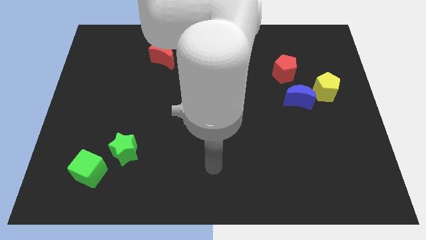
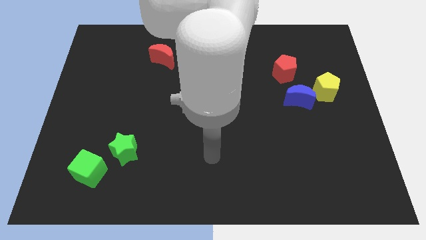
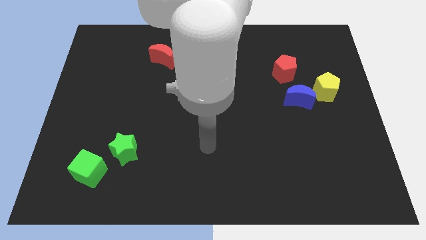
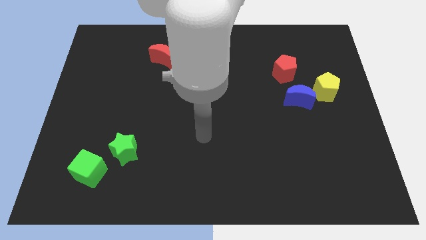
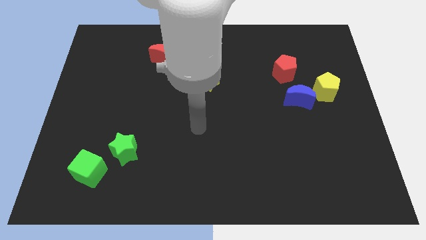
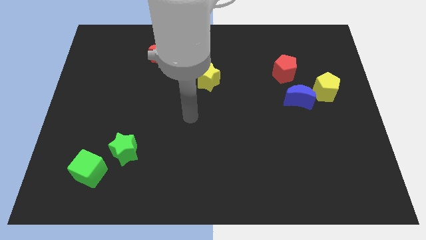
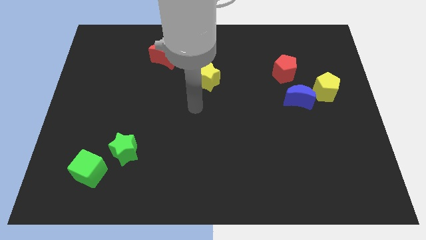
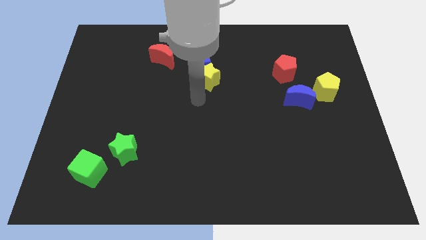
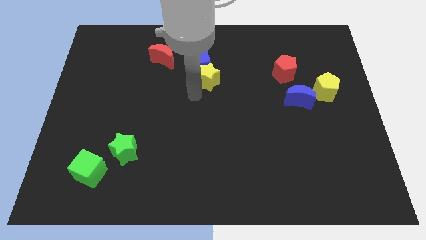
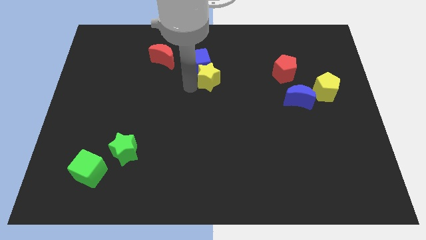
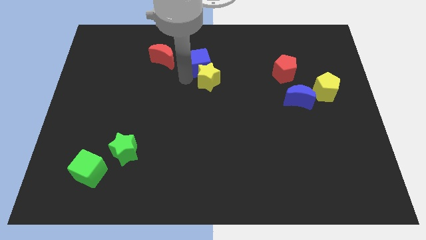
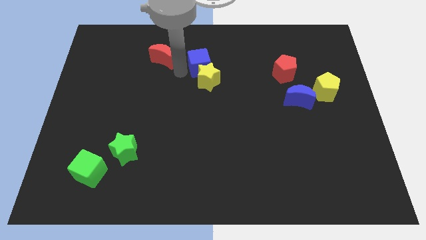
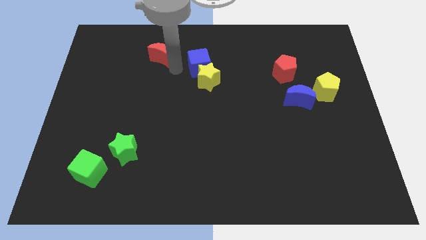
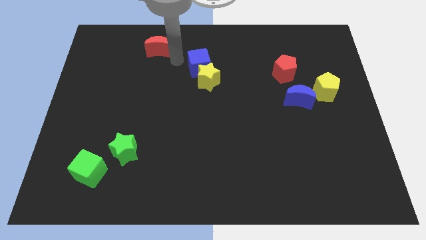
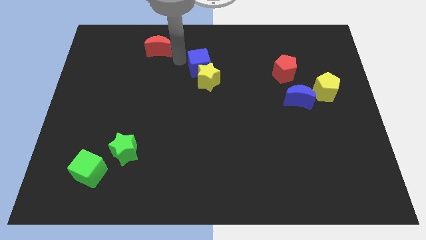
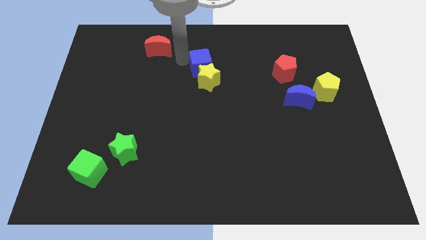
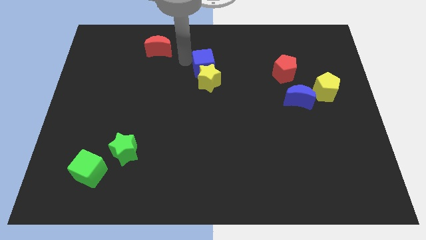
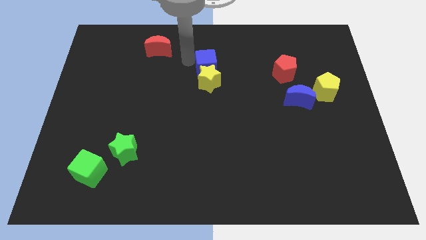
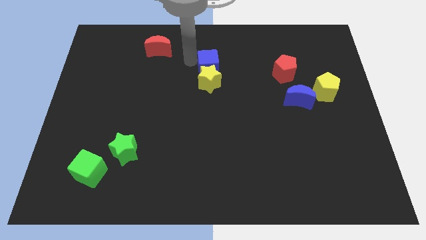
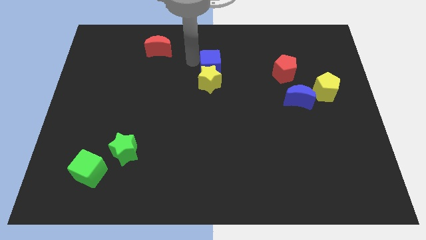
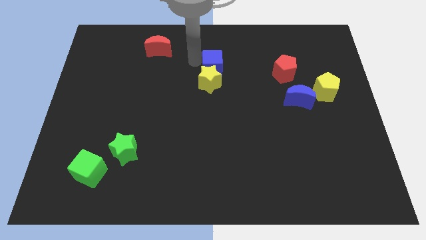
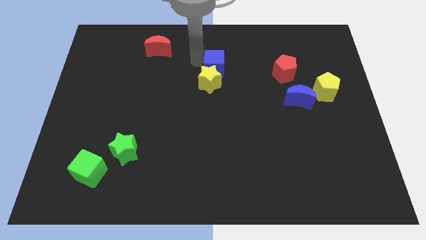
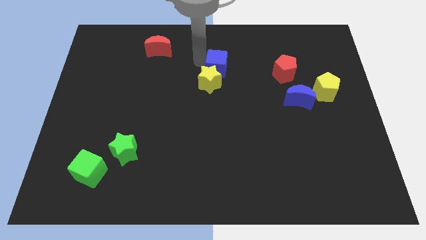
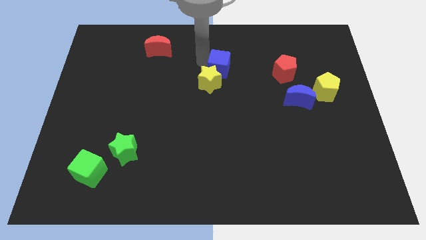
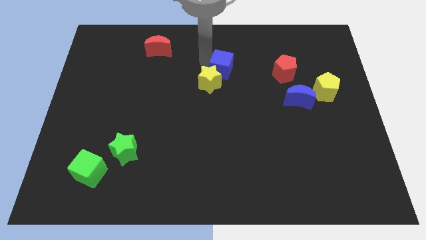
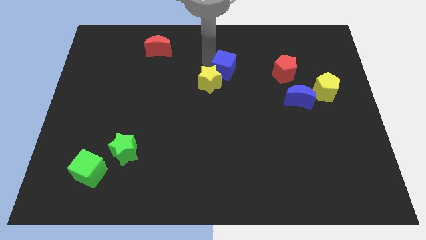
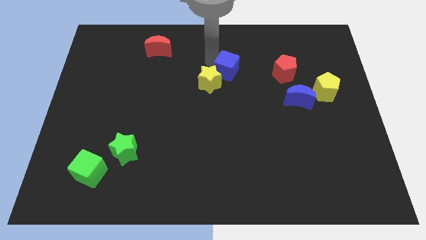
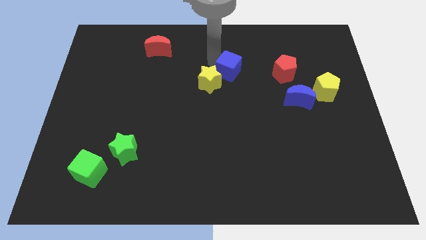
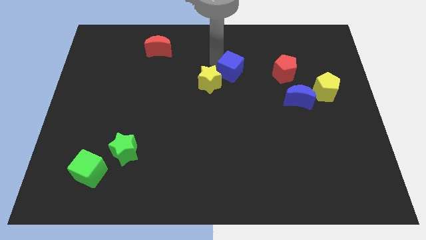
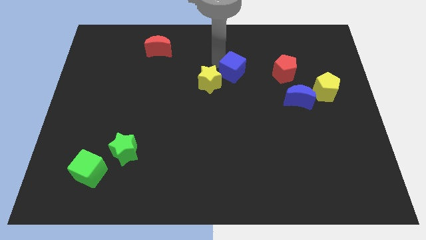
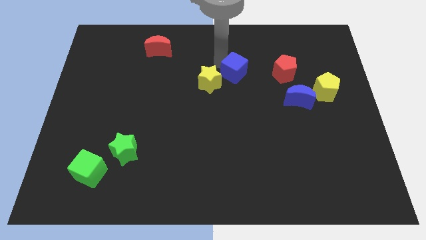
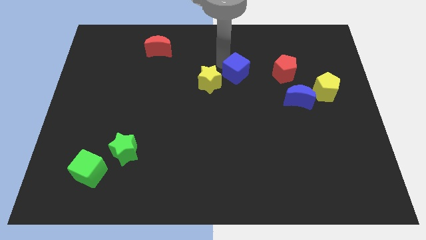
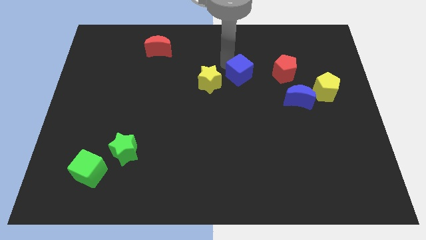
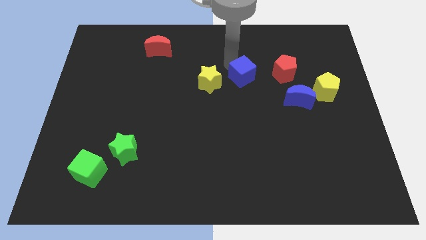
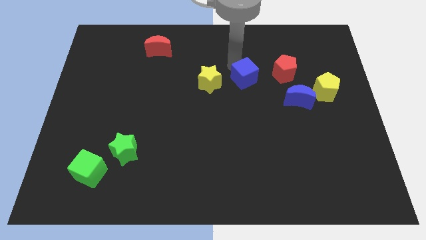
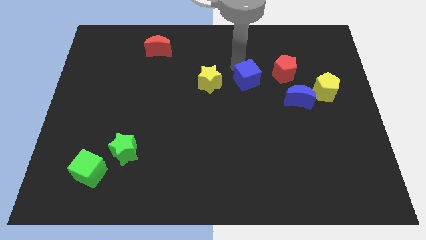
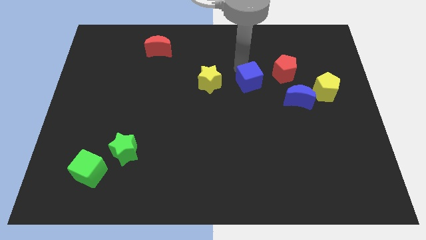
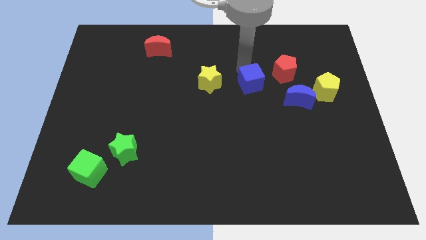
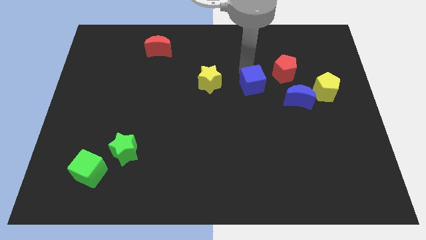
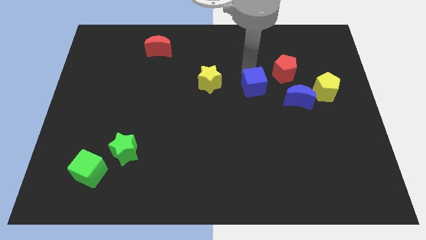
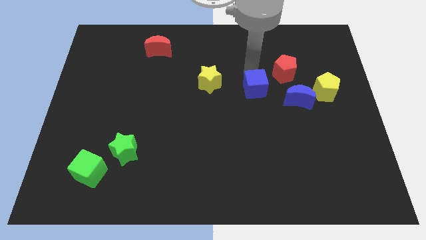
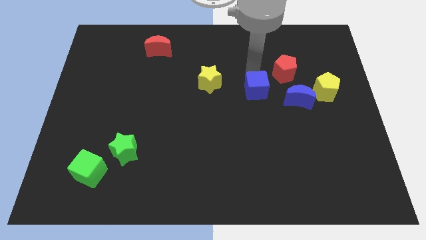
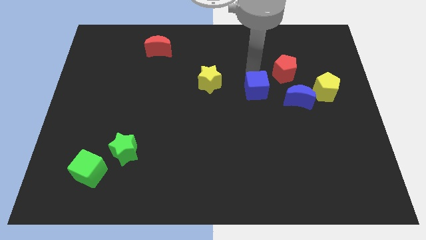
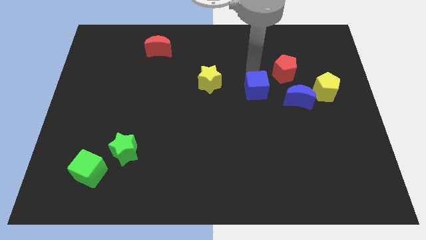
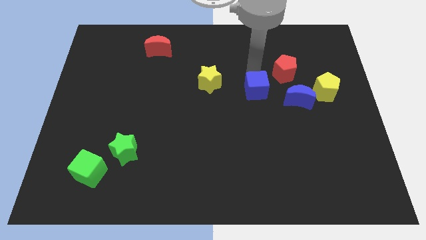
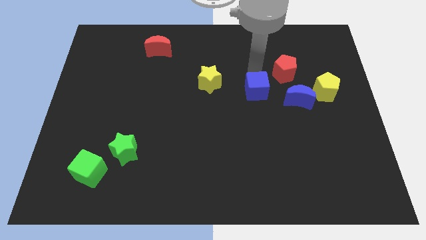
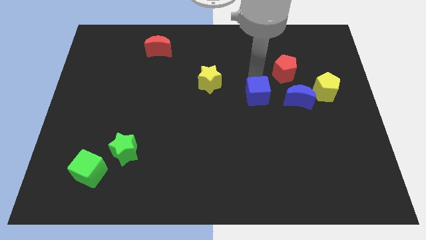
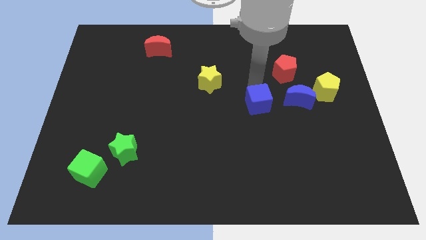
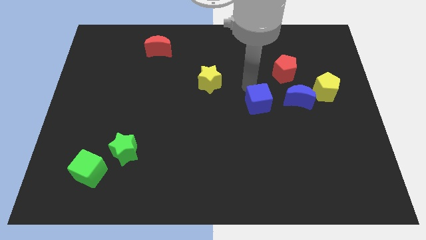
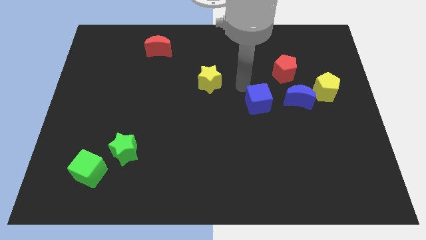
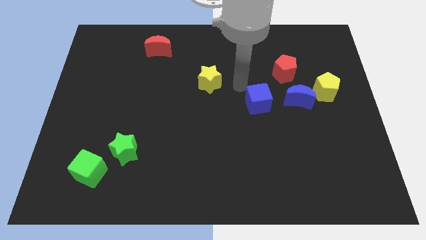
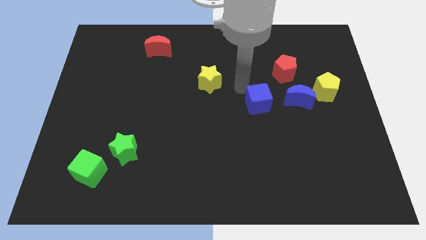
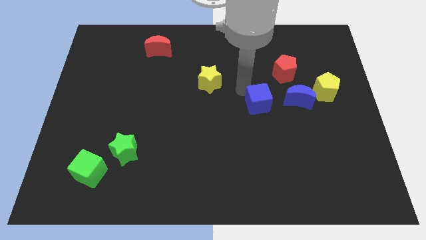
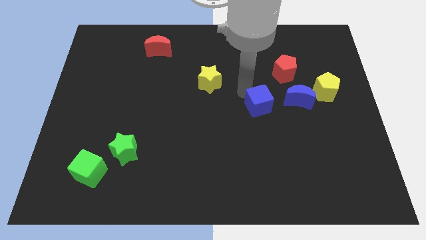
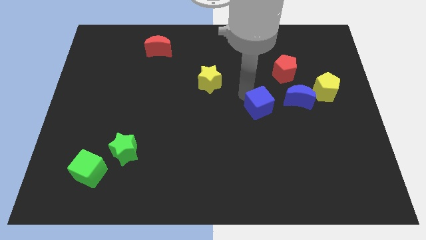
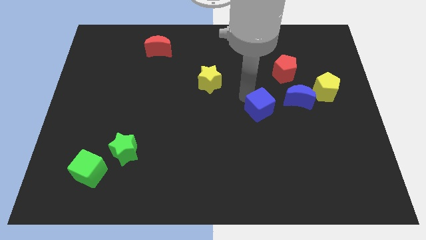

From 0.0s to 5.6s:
push the blue cube diagonally downwards and right

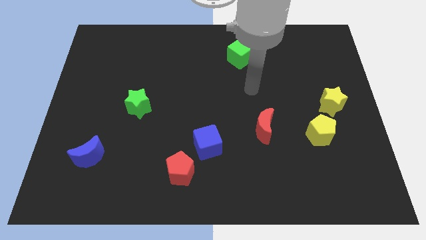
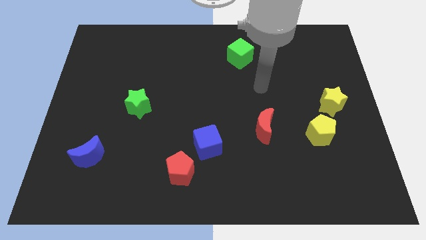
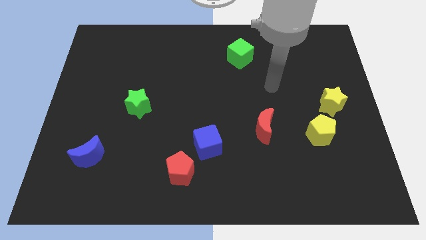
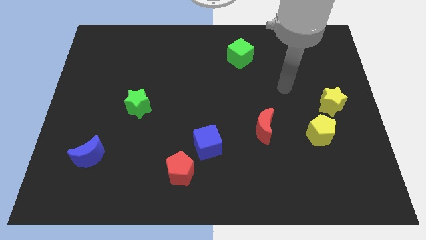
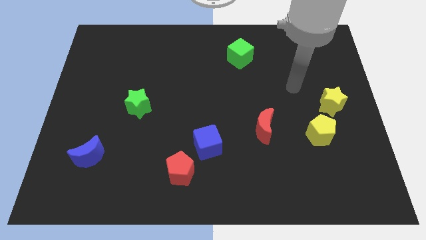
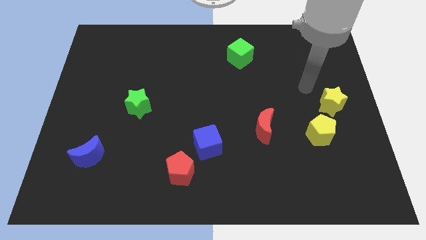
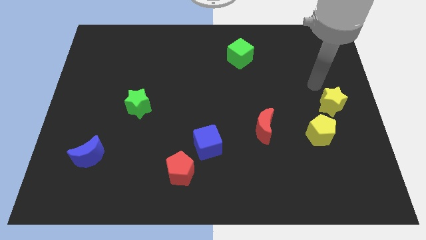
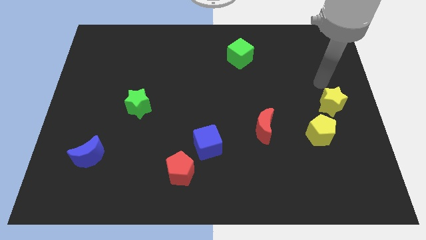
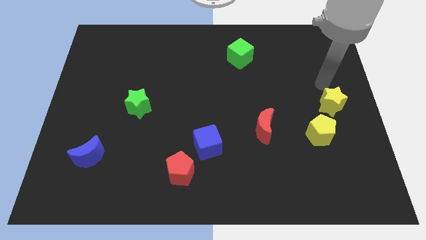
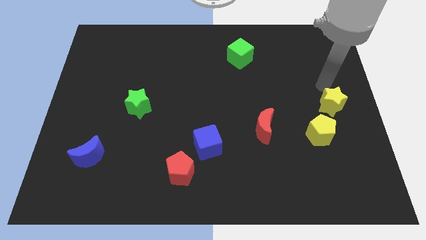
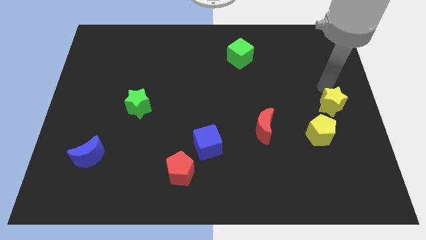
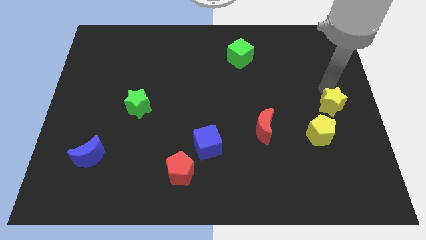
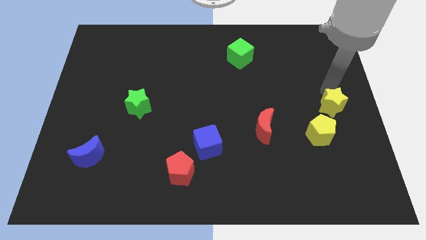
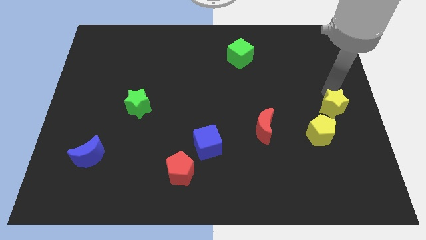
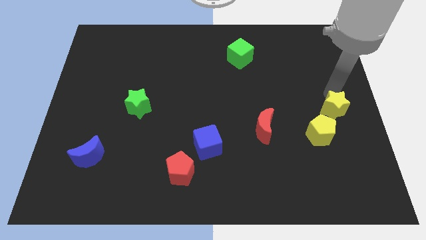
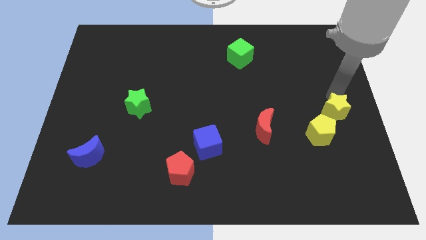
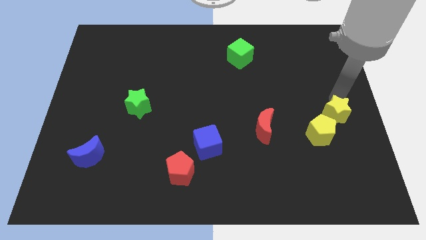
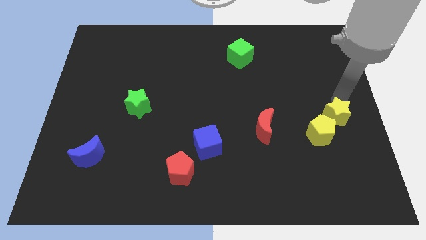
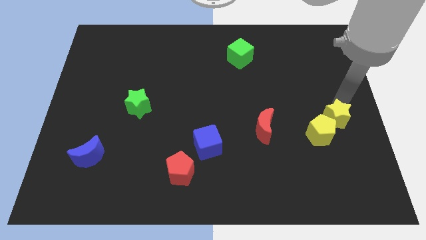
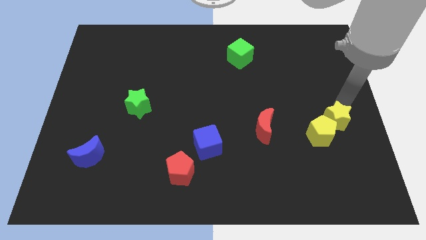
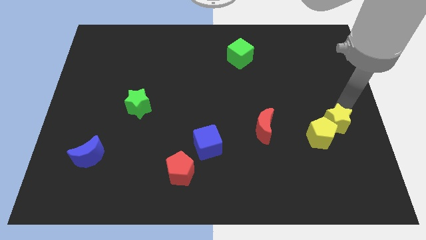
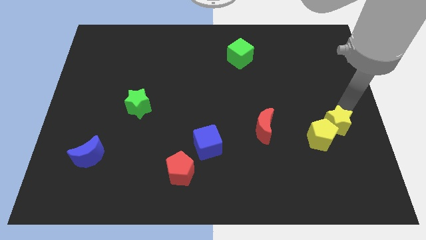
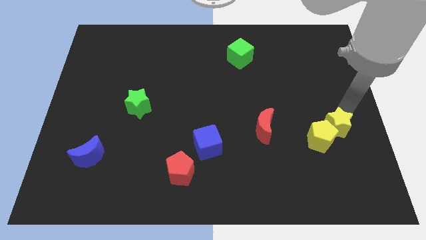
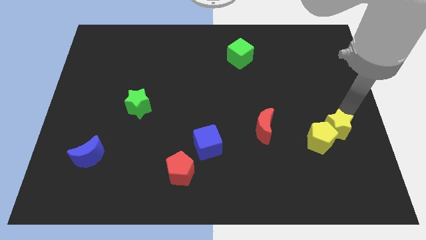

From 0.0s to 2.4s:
slide the yellow star down somewhat

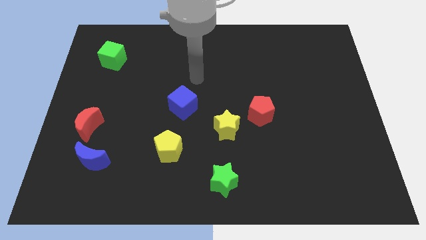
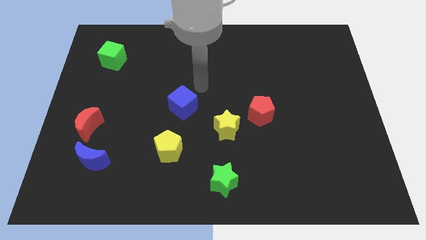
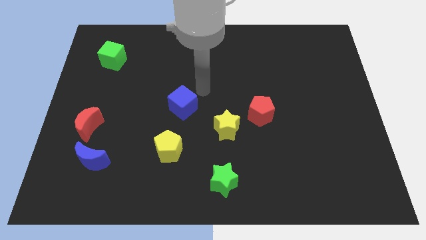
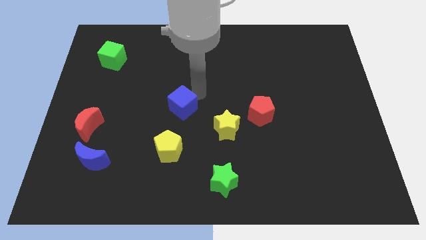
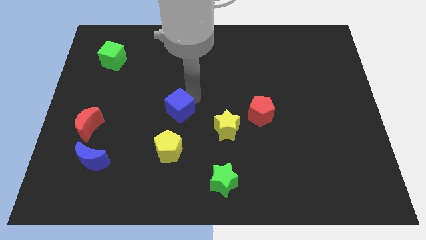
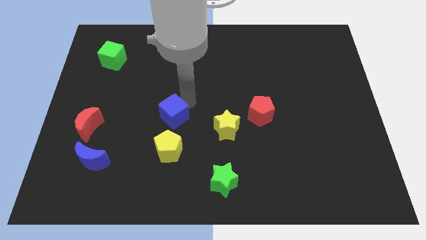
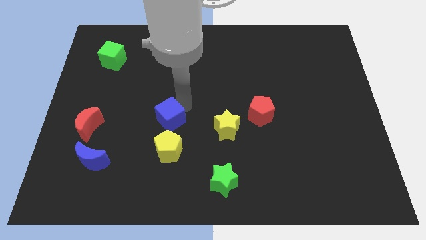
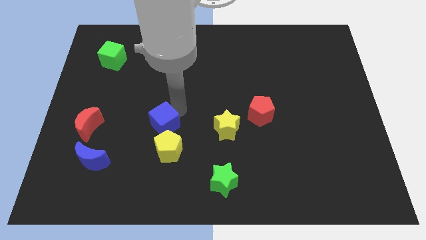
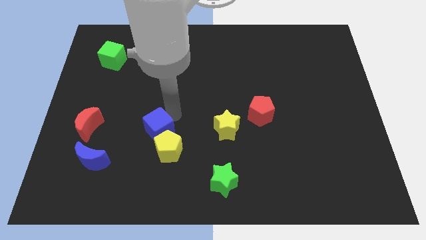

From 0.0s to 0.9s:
slightly move the blue cube down and to the left diagonally
